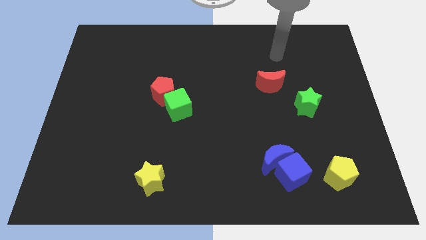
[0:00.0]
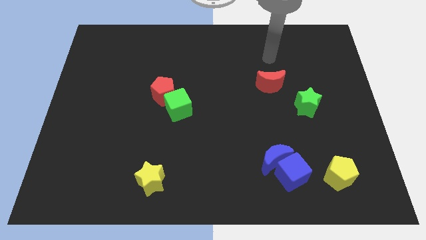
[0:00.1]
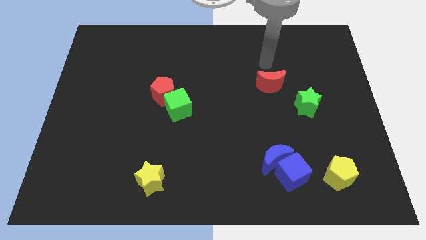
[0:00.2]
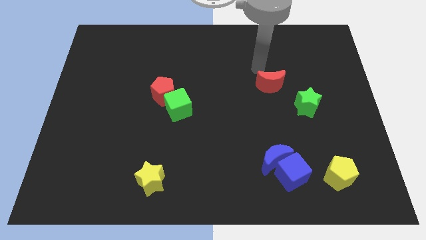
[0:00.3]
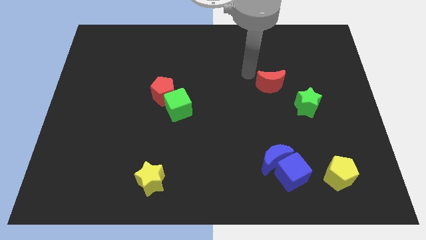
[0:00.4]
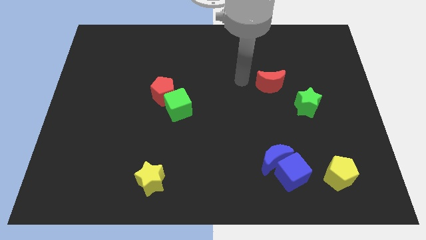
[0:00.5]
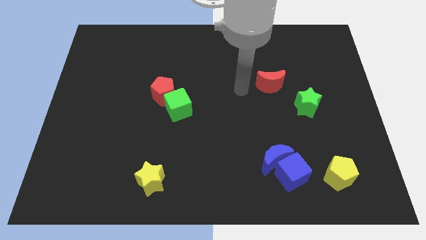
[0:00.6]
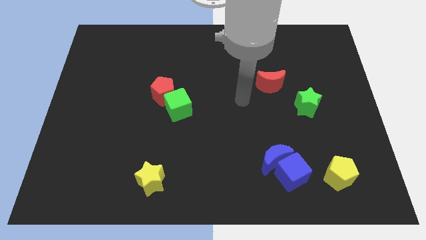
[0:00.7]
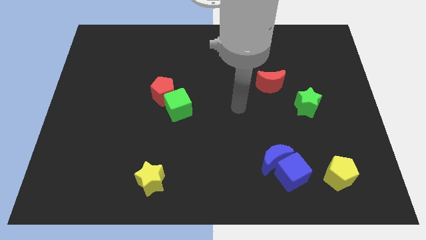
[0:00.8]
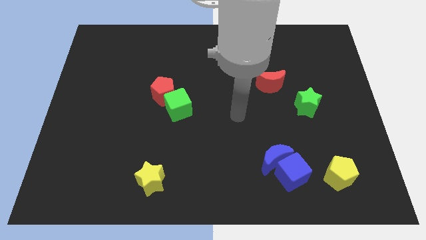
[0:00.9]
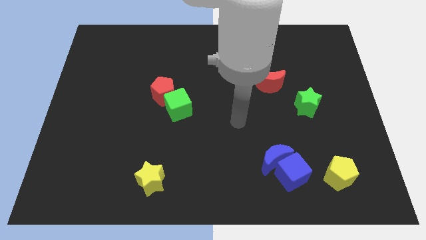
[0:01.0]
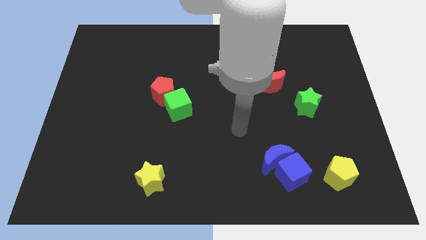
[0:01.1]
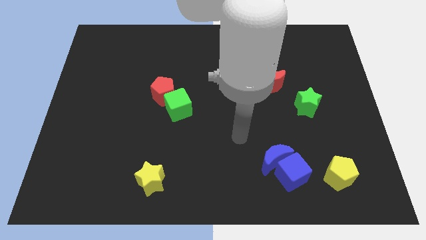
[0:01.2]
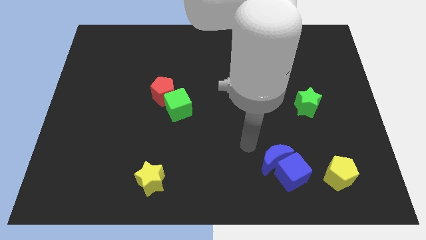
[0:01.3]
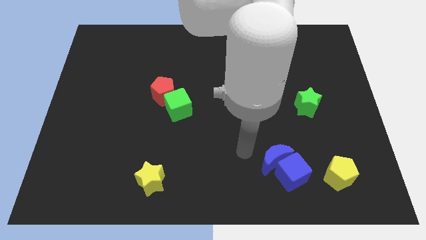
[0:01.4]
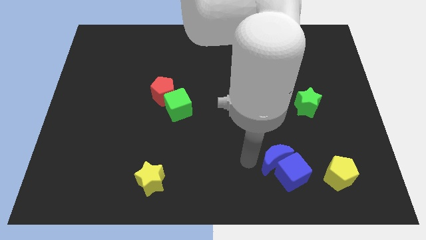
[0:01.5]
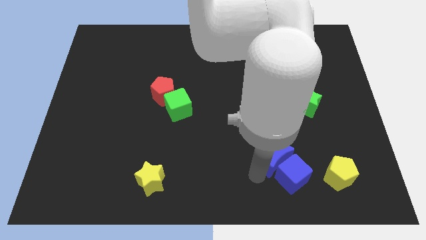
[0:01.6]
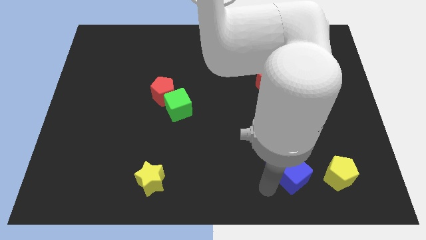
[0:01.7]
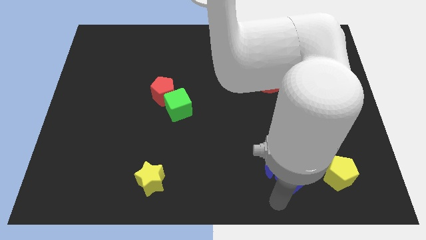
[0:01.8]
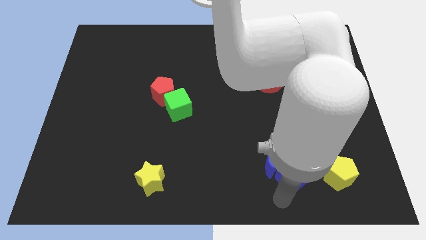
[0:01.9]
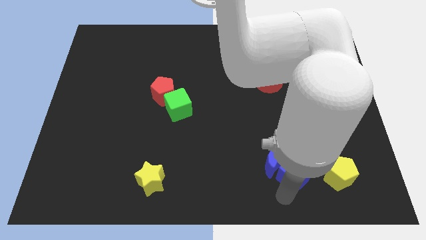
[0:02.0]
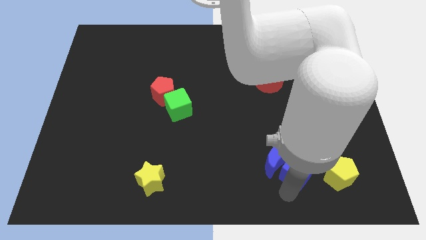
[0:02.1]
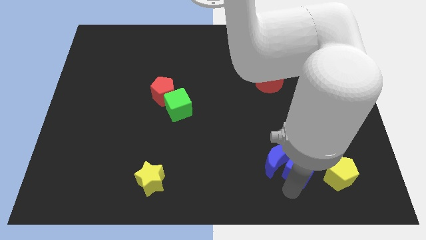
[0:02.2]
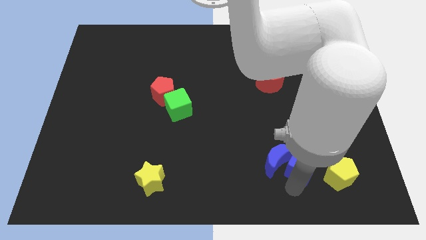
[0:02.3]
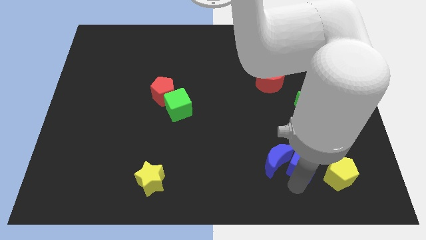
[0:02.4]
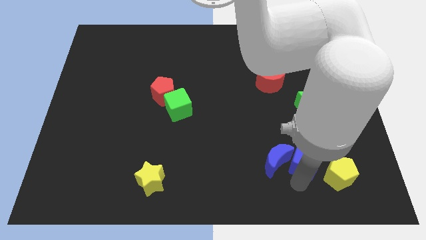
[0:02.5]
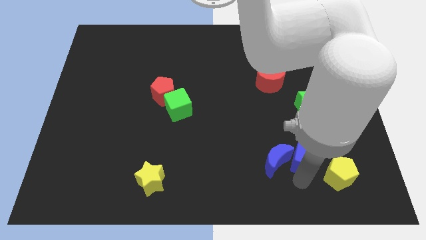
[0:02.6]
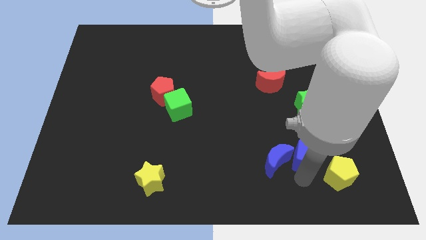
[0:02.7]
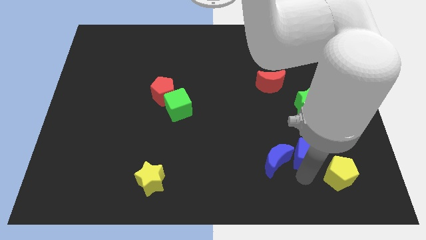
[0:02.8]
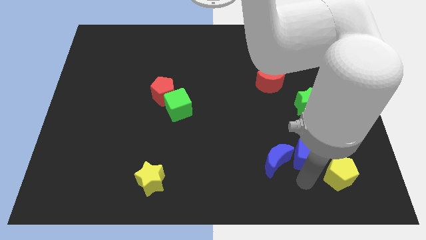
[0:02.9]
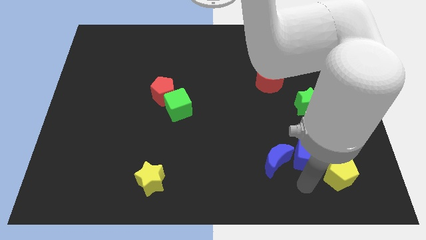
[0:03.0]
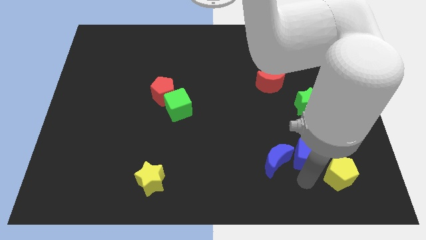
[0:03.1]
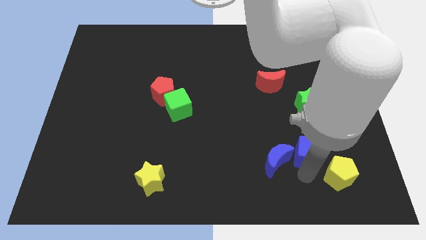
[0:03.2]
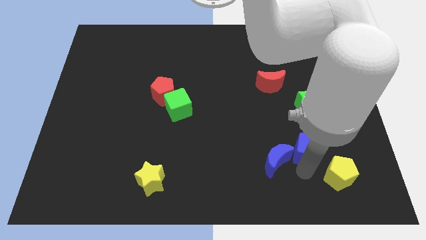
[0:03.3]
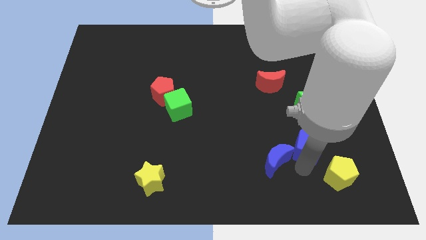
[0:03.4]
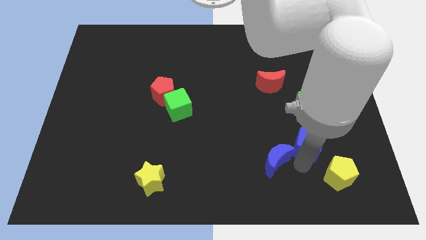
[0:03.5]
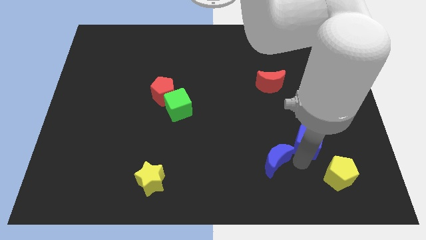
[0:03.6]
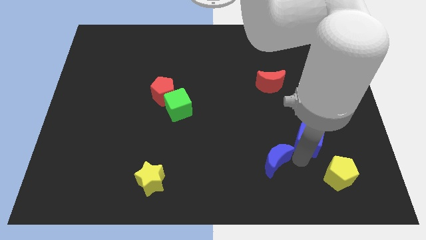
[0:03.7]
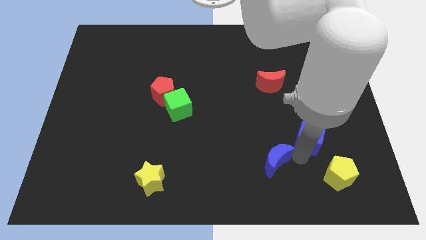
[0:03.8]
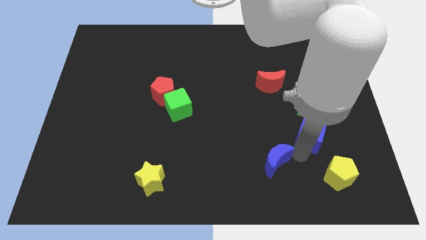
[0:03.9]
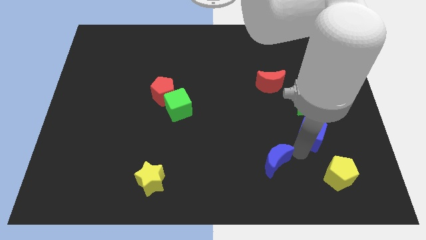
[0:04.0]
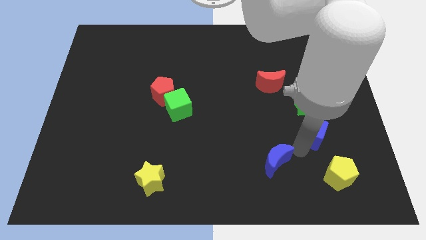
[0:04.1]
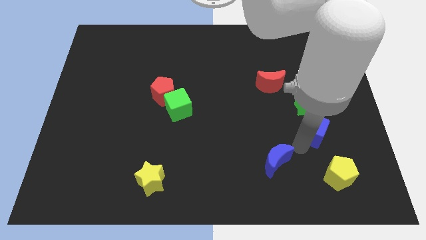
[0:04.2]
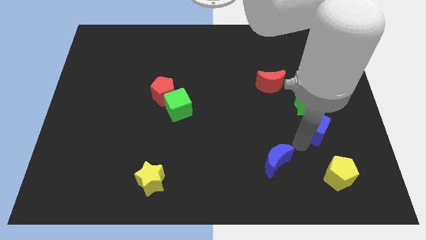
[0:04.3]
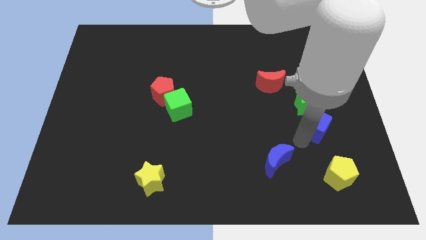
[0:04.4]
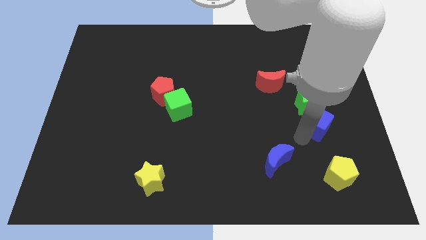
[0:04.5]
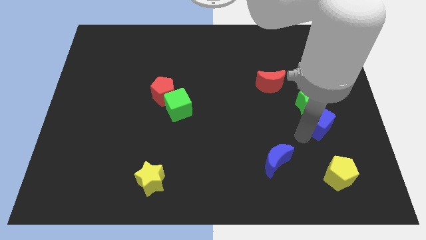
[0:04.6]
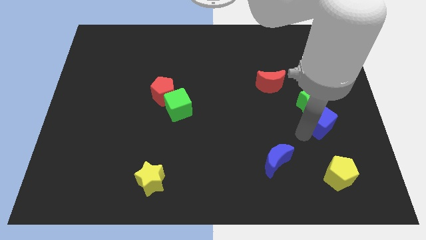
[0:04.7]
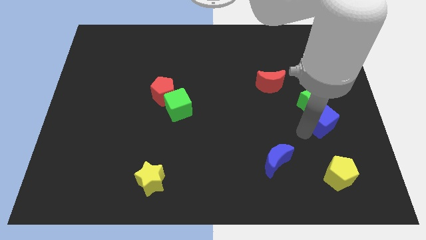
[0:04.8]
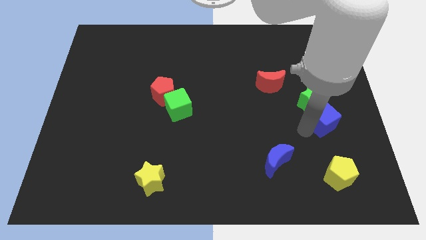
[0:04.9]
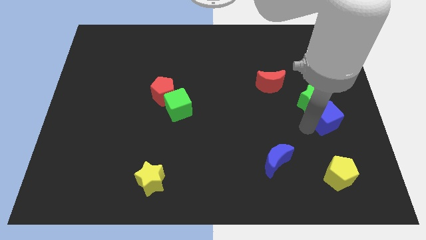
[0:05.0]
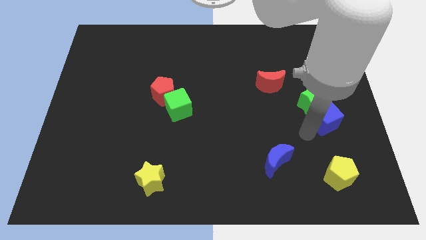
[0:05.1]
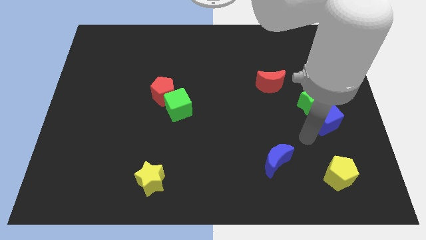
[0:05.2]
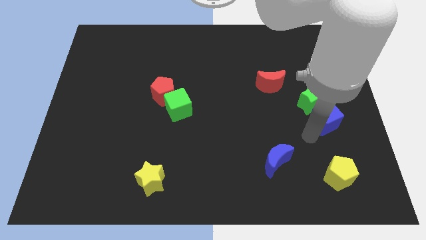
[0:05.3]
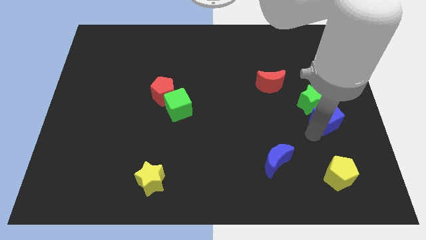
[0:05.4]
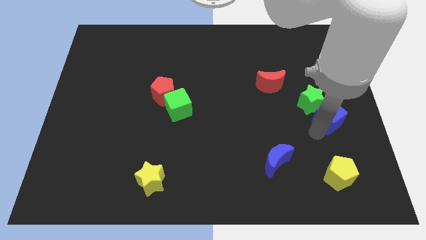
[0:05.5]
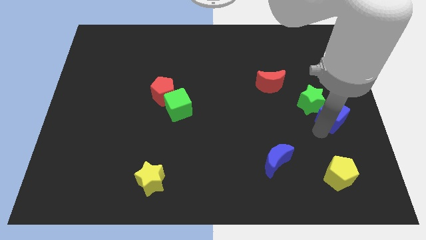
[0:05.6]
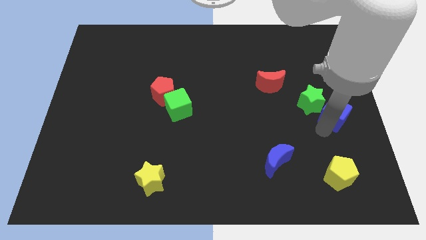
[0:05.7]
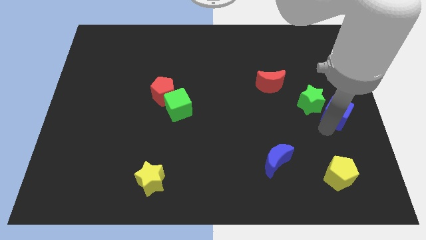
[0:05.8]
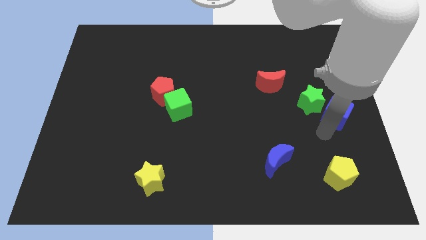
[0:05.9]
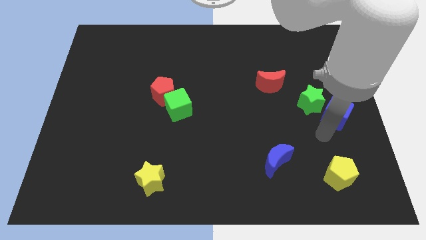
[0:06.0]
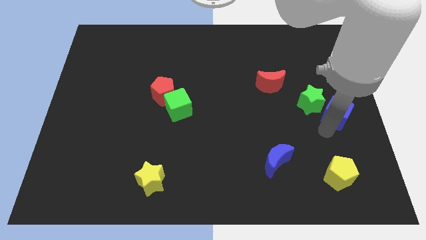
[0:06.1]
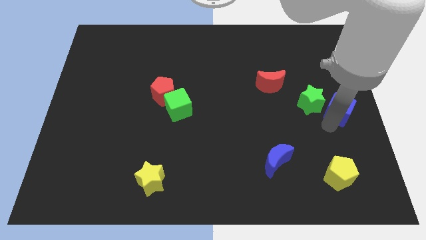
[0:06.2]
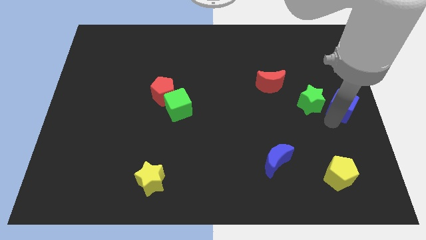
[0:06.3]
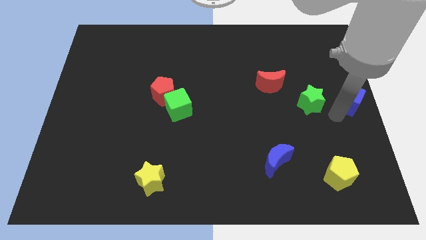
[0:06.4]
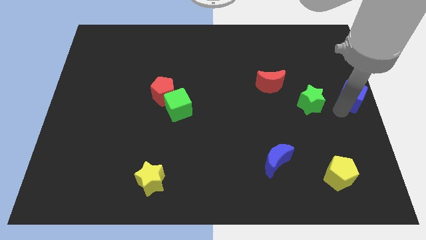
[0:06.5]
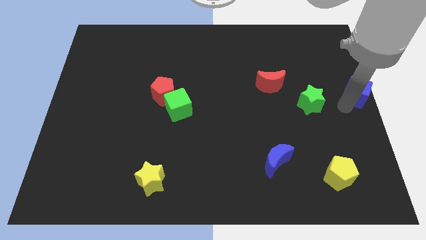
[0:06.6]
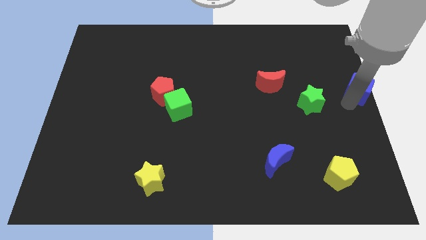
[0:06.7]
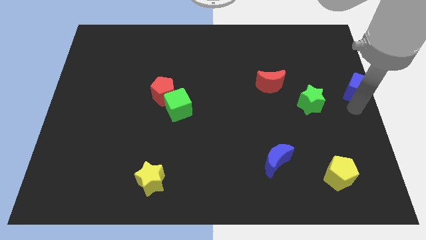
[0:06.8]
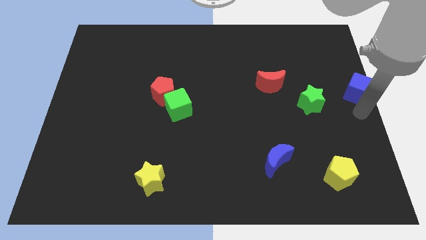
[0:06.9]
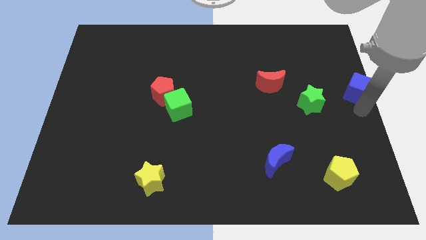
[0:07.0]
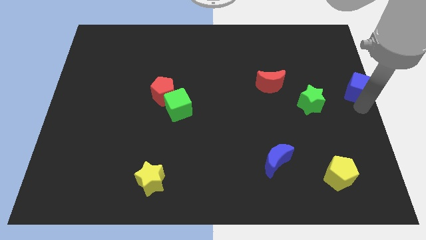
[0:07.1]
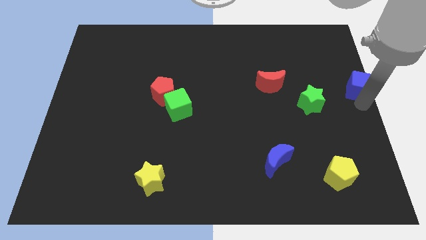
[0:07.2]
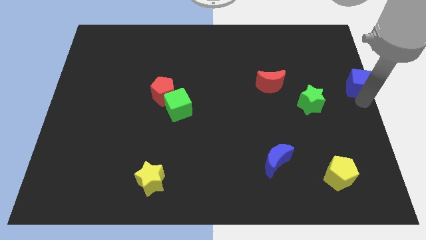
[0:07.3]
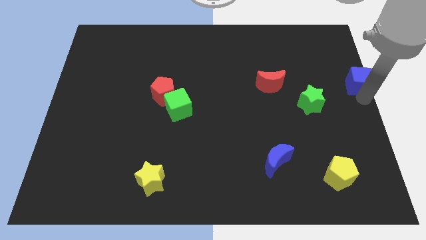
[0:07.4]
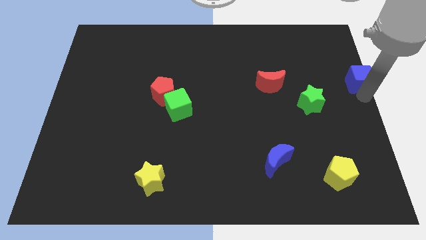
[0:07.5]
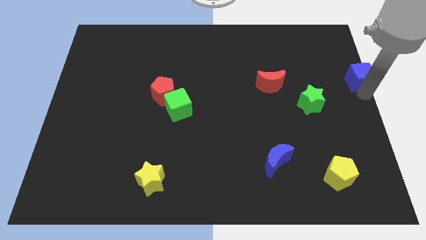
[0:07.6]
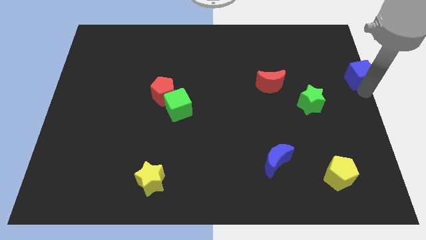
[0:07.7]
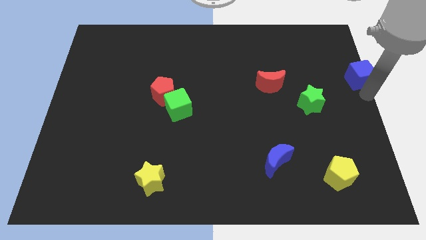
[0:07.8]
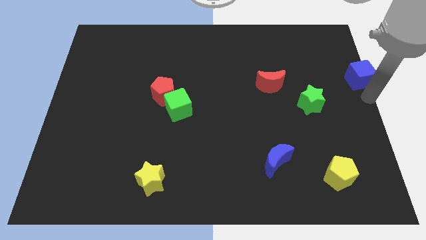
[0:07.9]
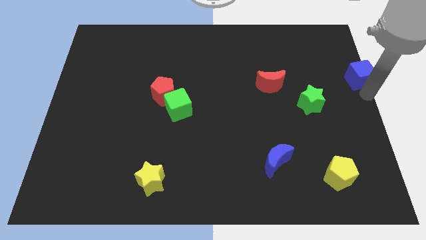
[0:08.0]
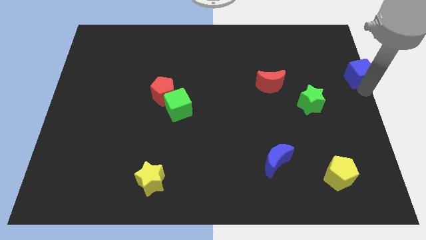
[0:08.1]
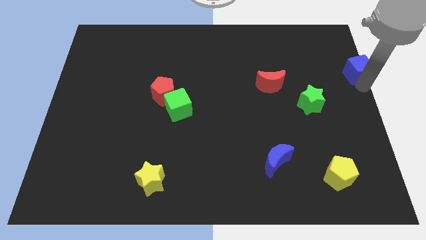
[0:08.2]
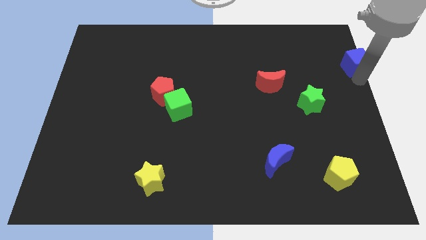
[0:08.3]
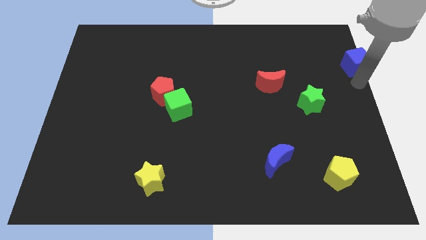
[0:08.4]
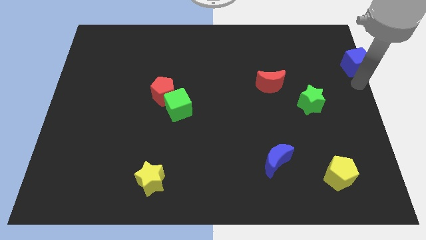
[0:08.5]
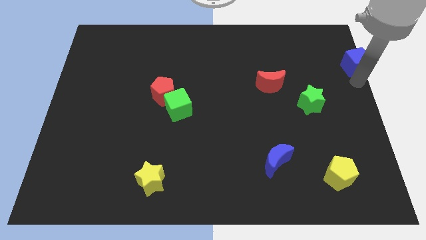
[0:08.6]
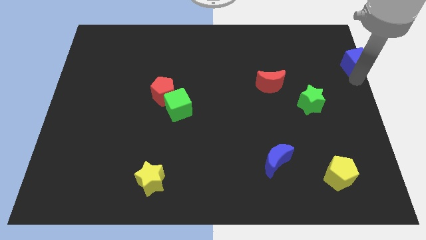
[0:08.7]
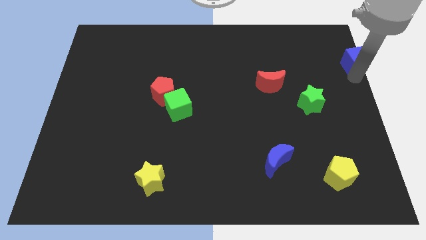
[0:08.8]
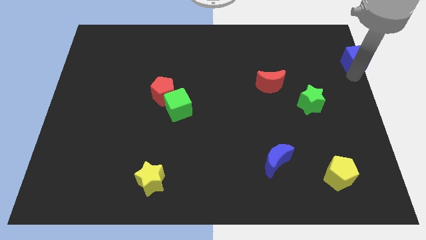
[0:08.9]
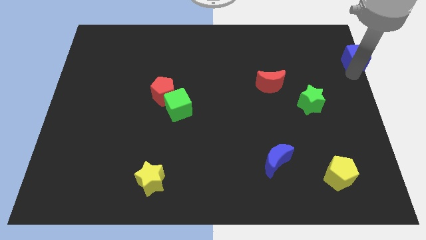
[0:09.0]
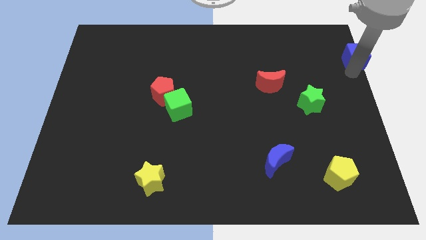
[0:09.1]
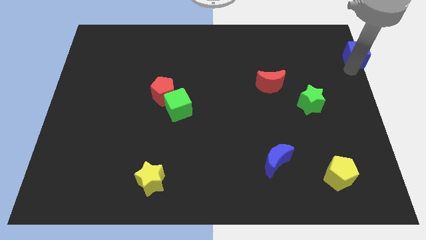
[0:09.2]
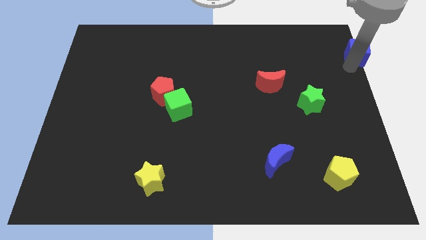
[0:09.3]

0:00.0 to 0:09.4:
push the blue cube to the upper right corner
